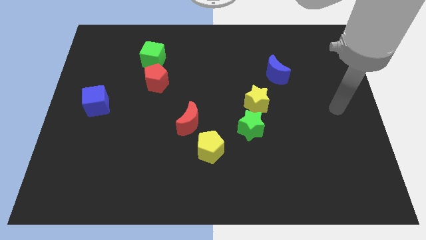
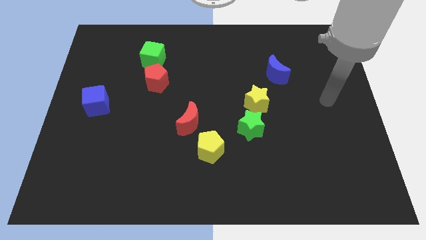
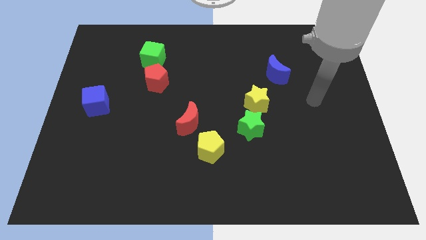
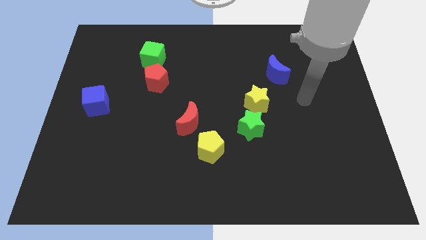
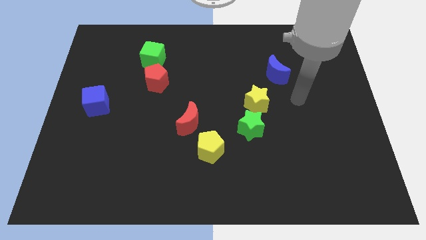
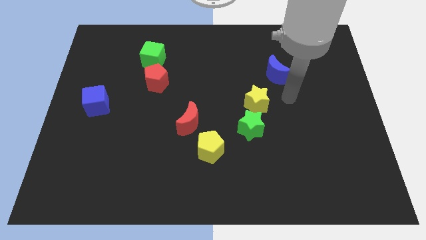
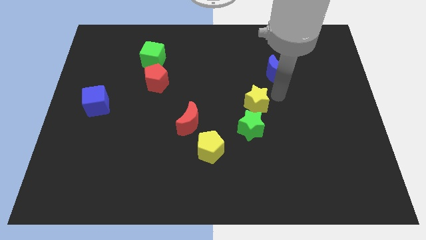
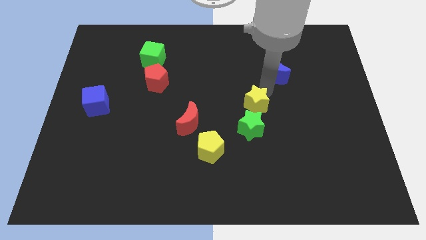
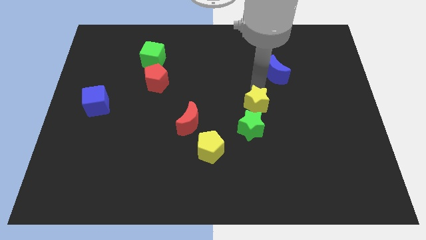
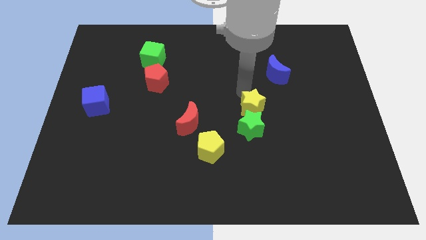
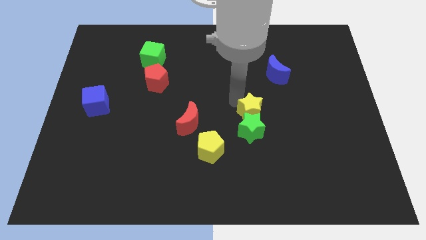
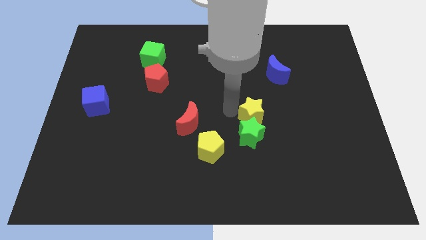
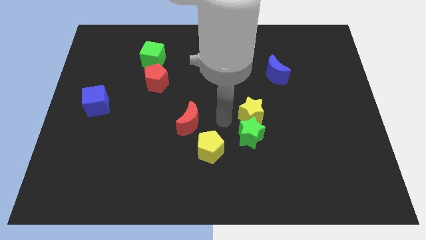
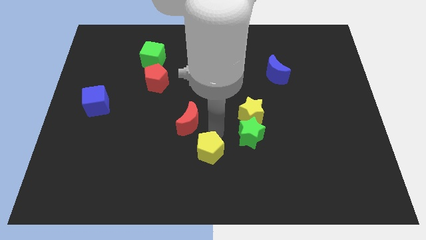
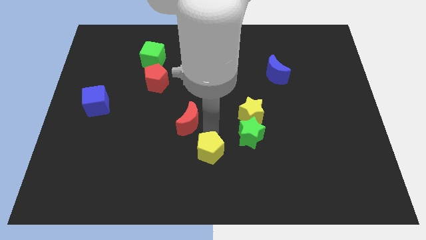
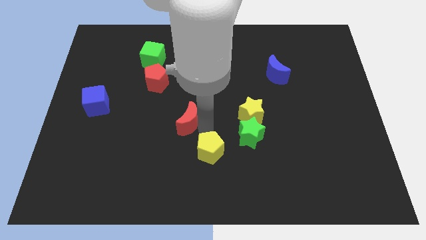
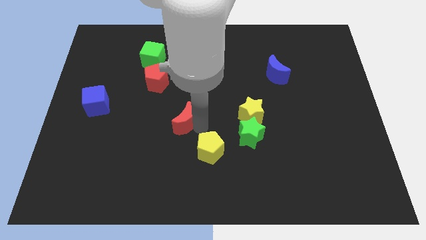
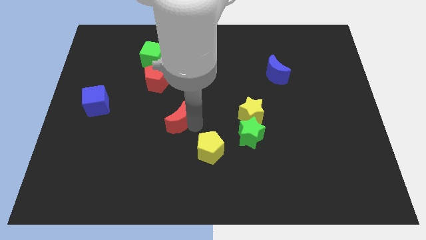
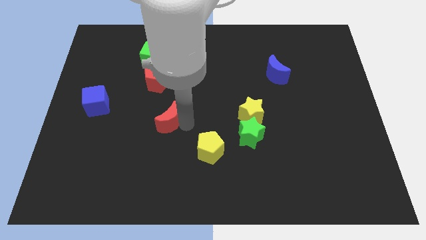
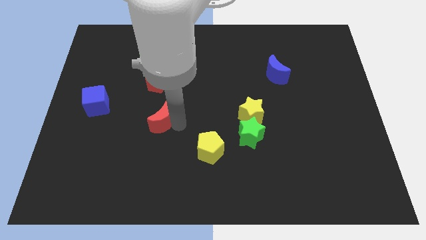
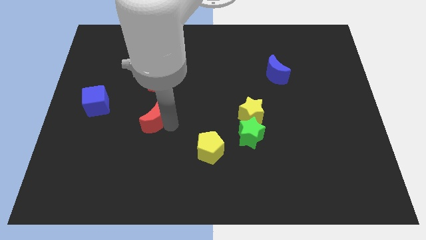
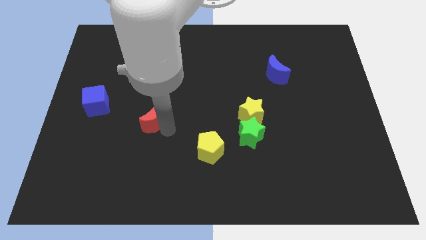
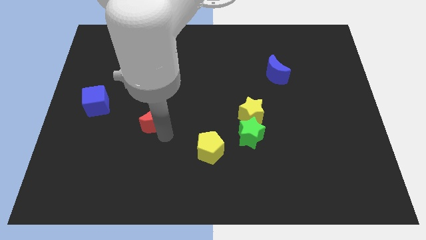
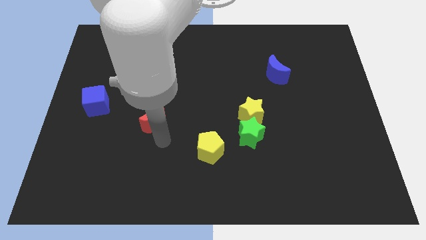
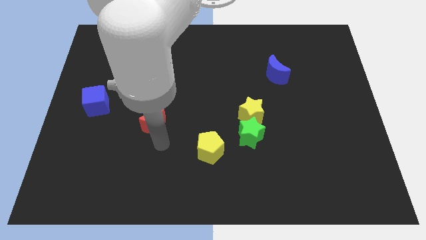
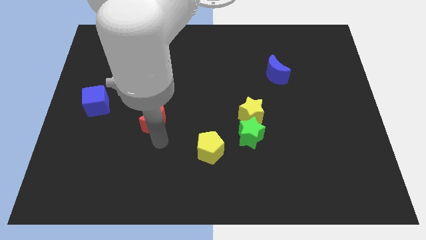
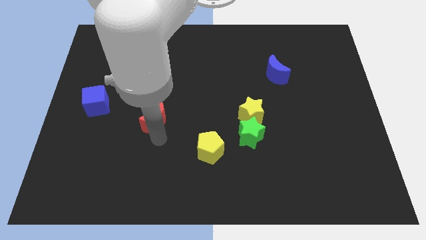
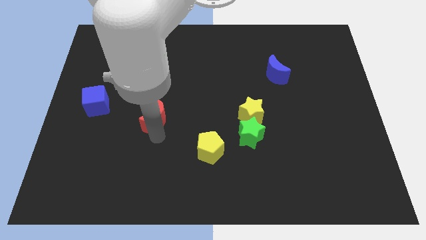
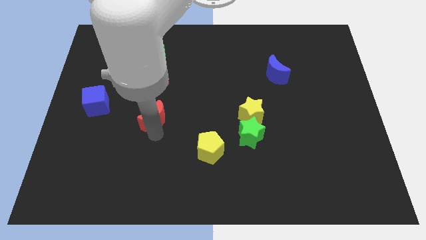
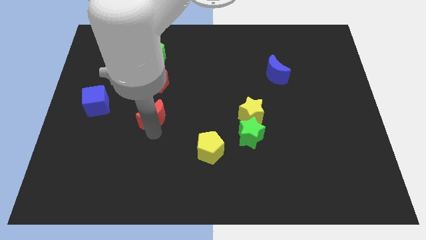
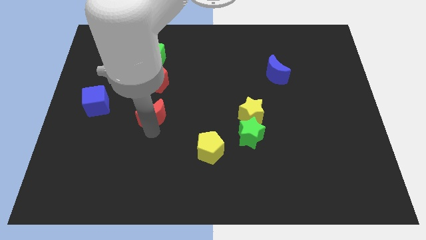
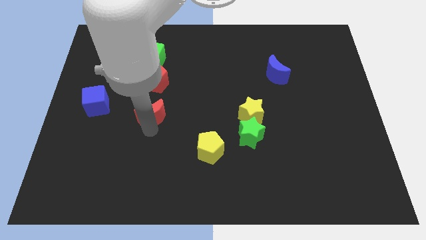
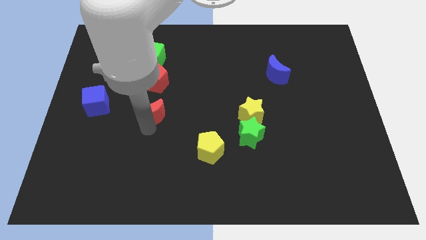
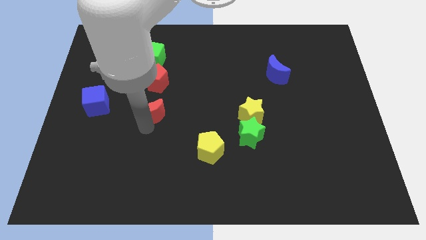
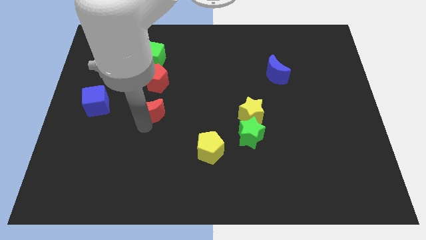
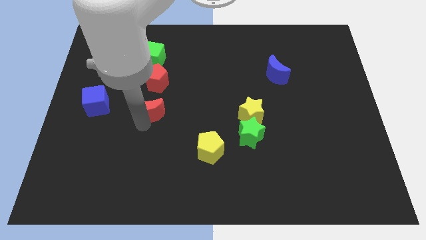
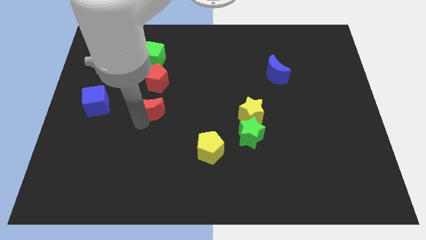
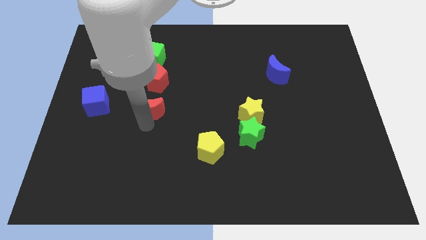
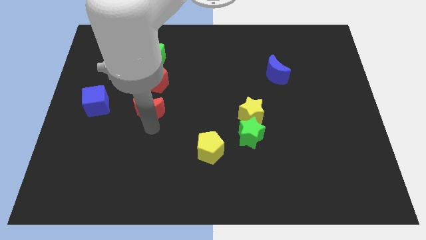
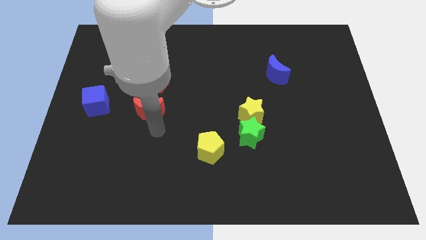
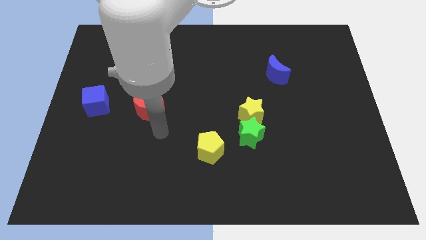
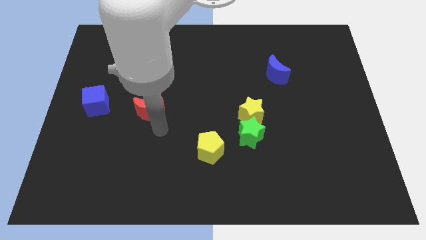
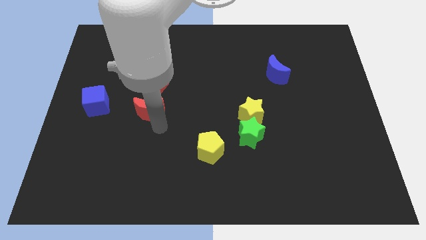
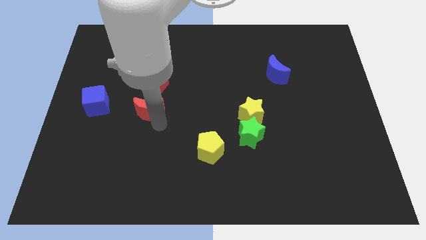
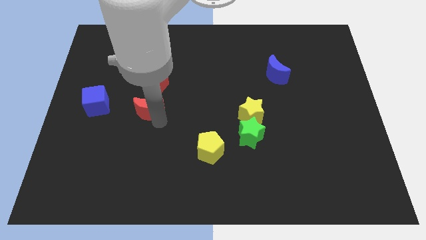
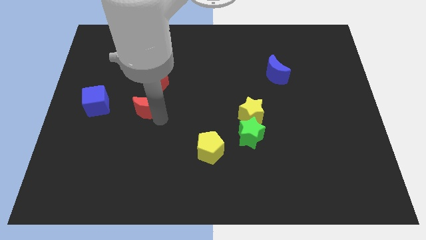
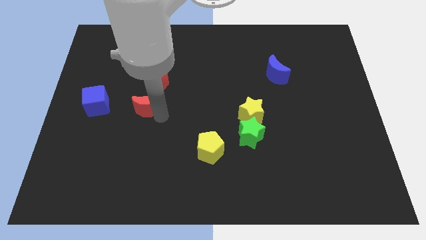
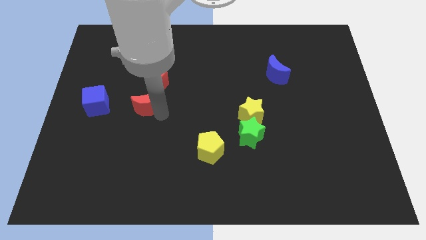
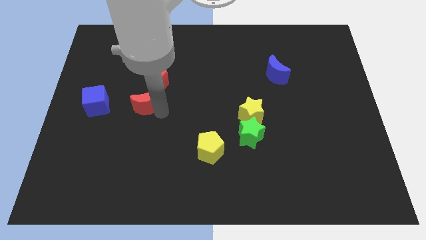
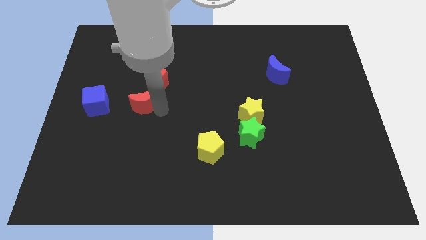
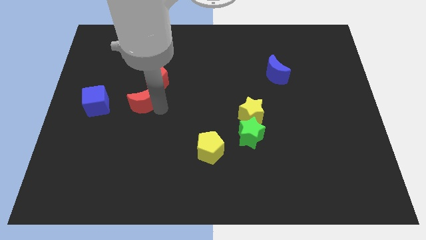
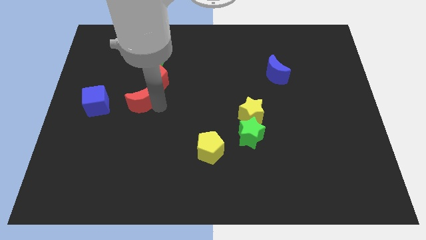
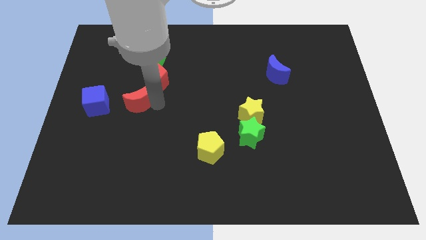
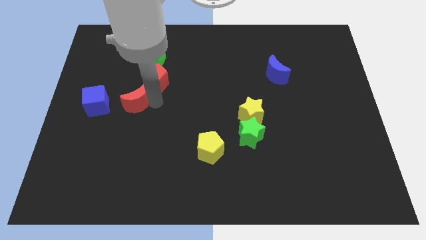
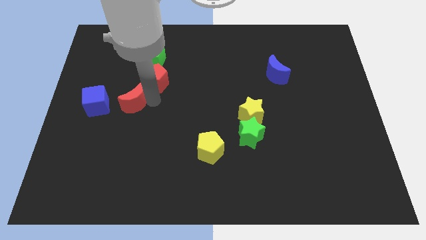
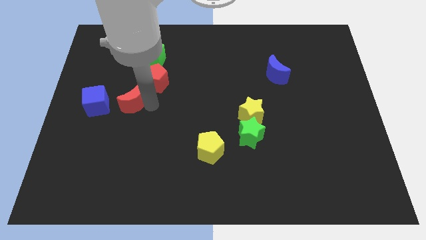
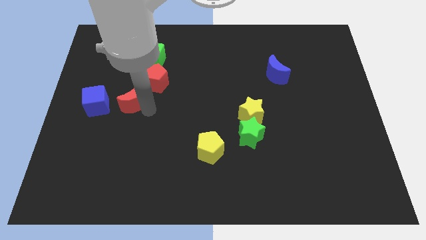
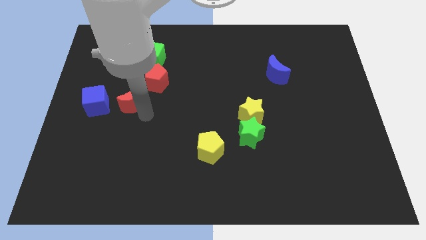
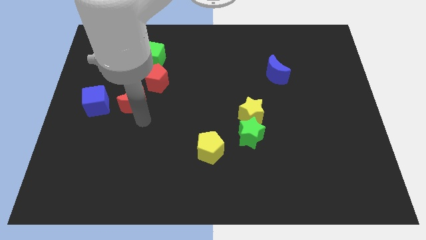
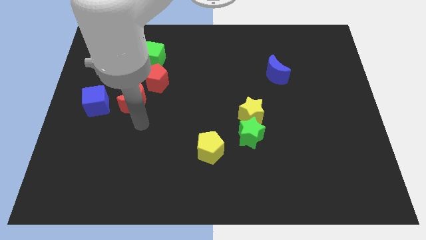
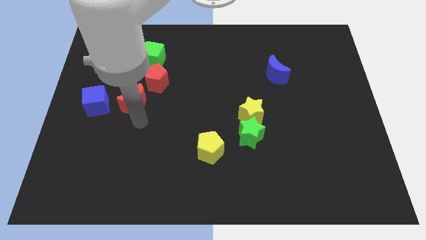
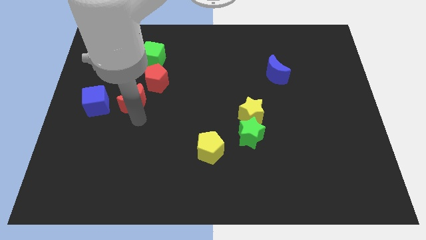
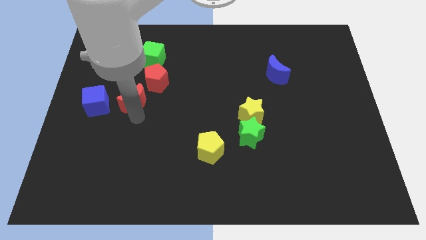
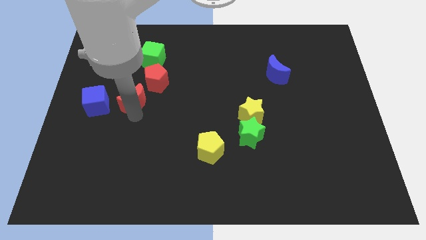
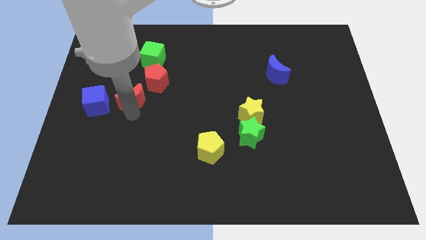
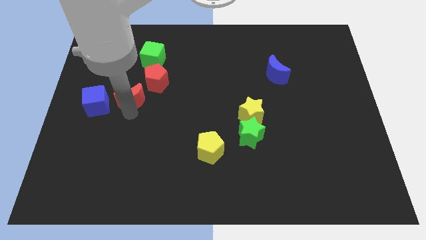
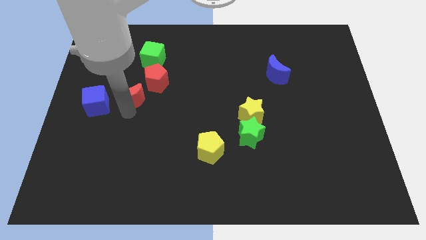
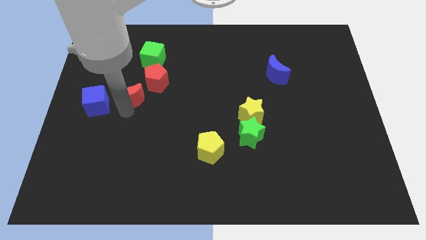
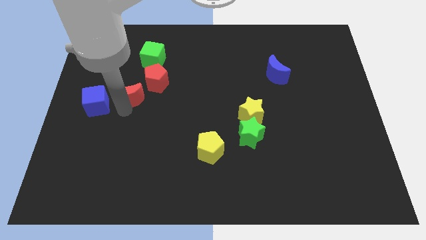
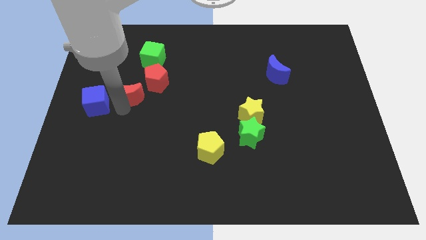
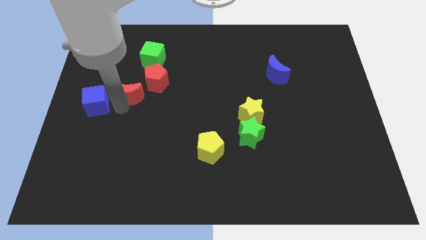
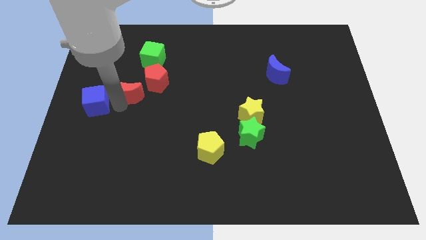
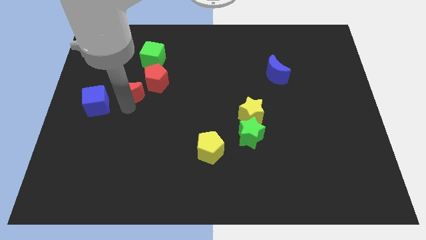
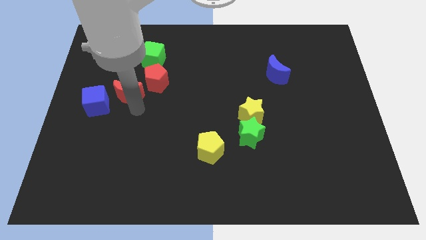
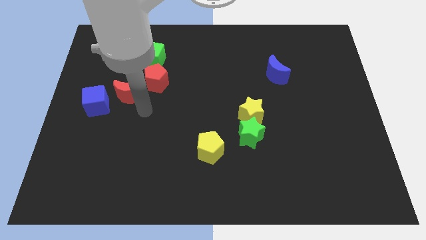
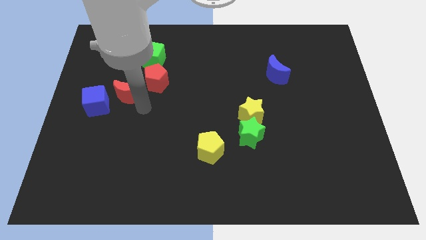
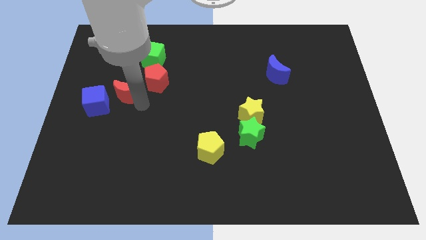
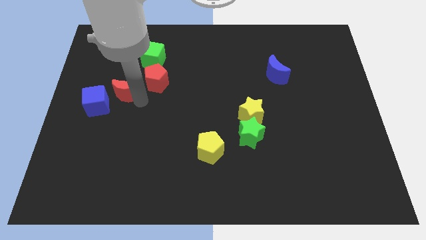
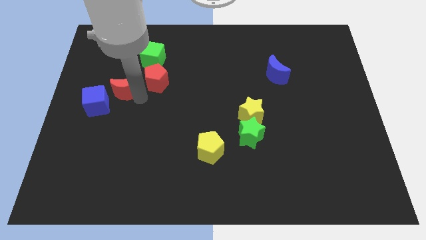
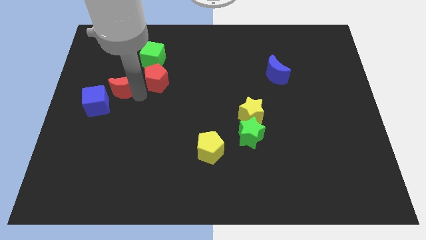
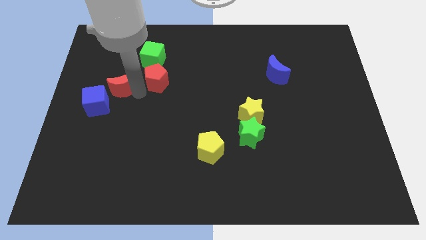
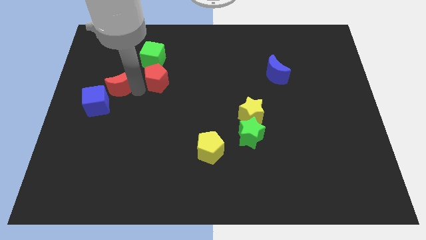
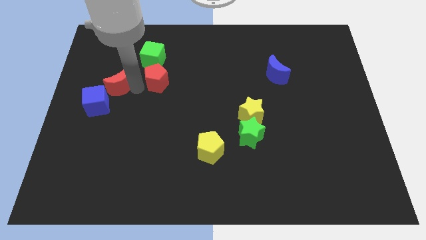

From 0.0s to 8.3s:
put the red moon above the blue cube
